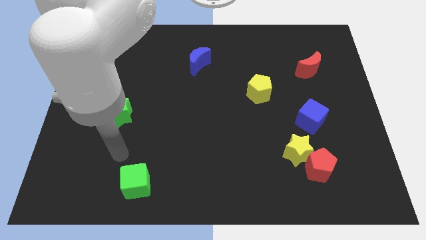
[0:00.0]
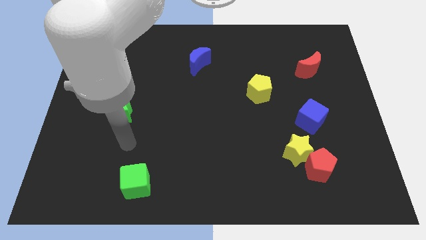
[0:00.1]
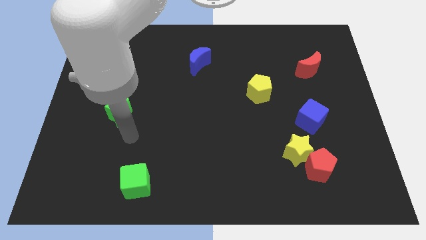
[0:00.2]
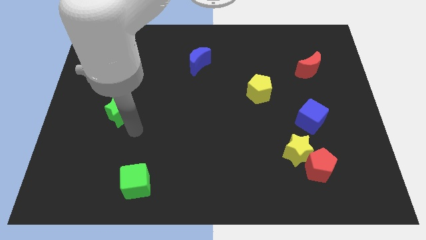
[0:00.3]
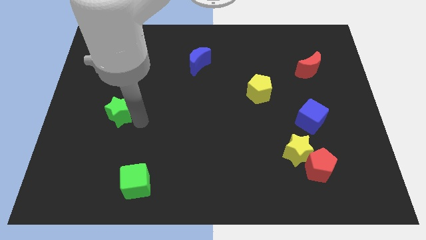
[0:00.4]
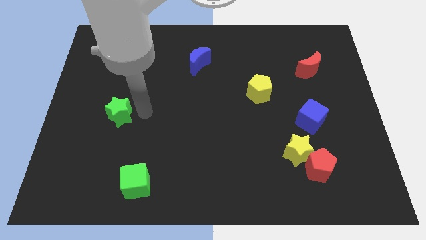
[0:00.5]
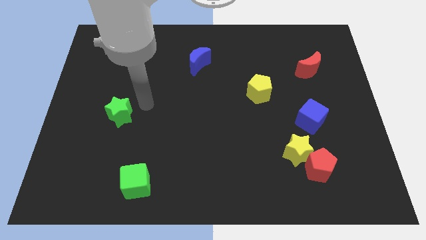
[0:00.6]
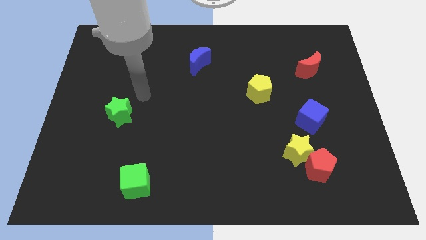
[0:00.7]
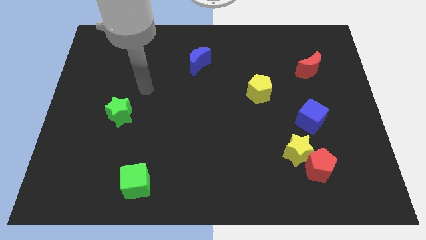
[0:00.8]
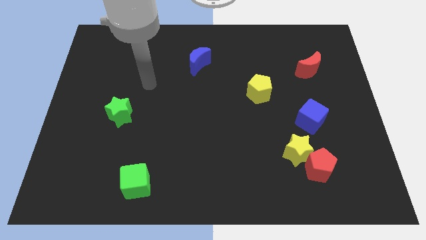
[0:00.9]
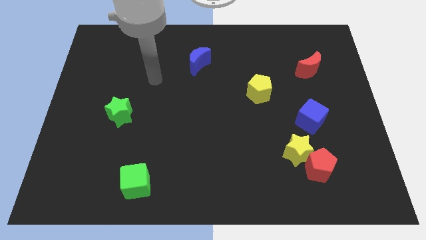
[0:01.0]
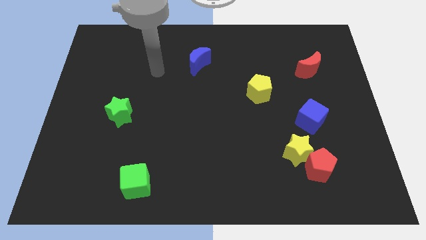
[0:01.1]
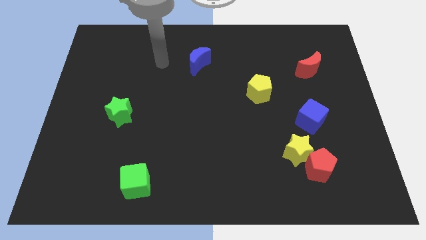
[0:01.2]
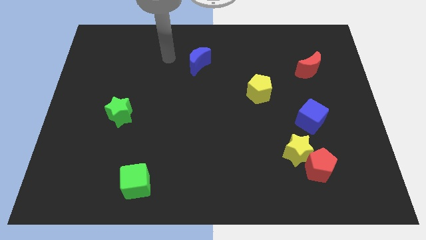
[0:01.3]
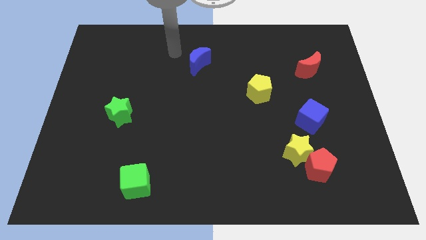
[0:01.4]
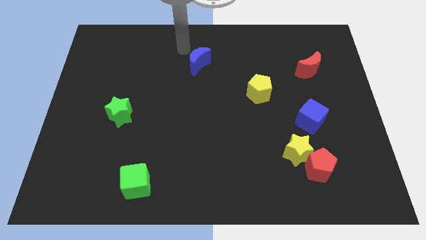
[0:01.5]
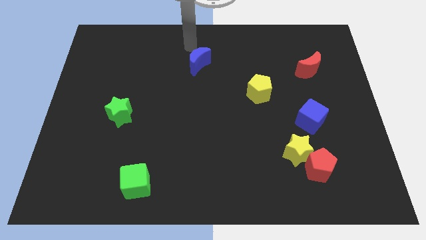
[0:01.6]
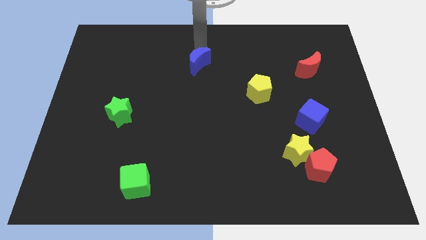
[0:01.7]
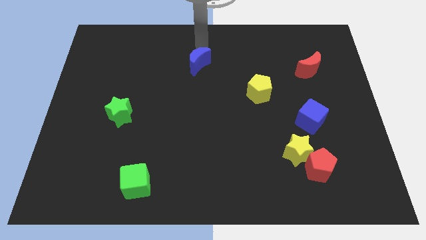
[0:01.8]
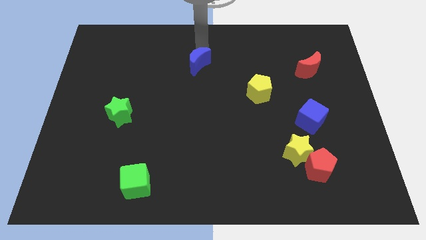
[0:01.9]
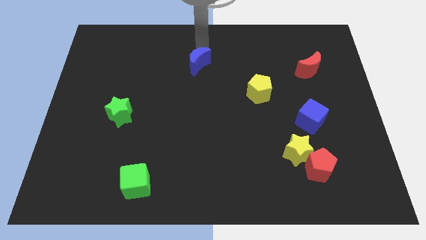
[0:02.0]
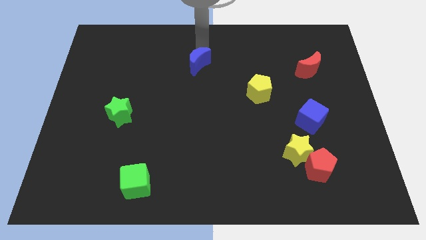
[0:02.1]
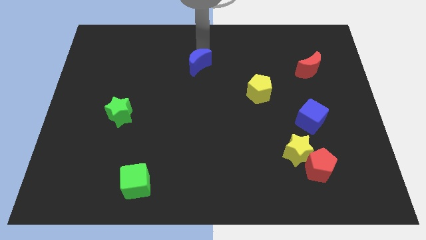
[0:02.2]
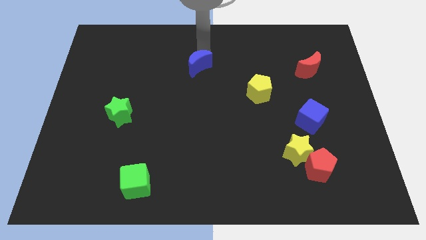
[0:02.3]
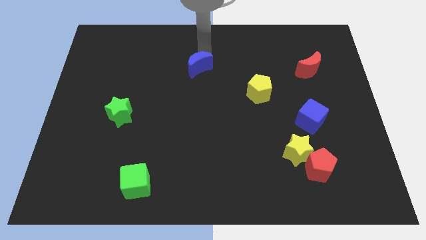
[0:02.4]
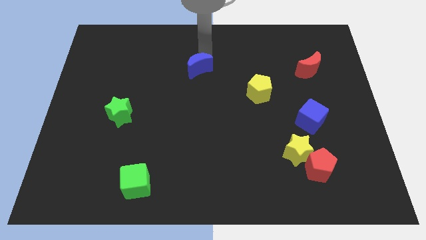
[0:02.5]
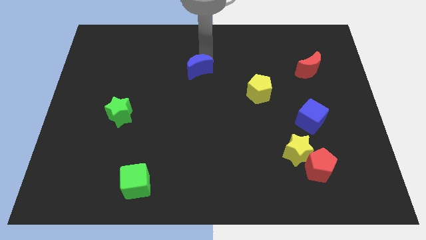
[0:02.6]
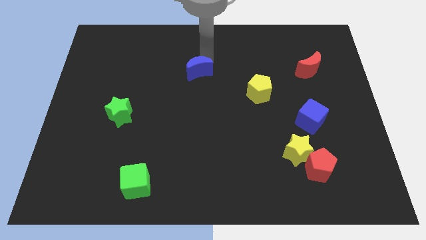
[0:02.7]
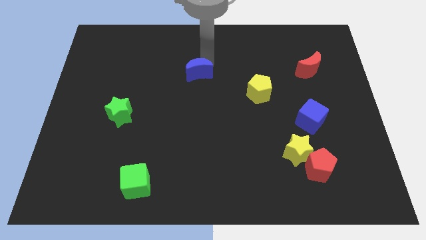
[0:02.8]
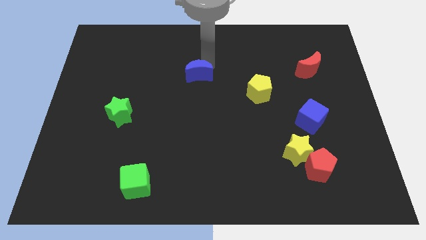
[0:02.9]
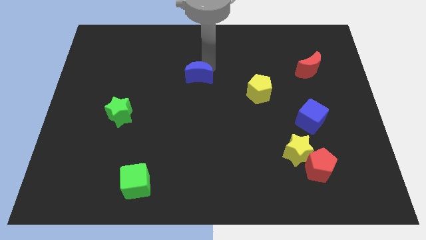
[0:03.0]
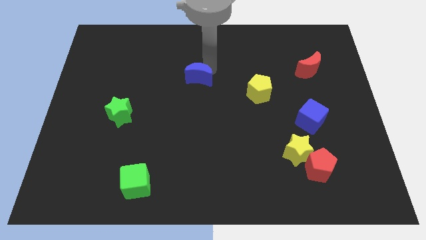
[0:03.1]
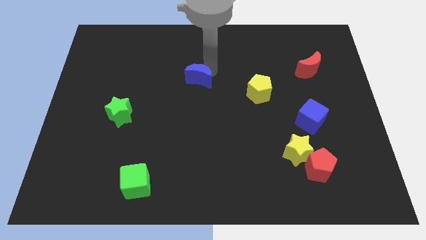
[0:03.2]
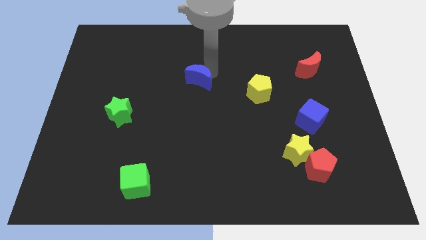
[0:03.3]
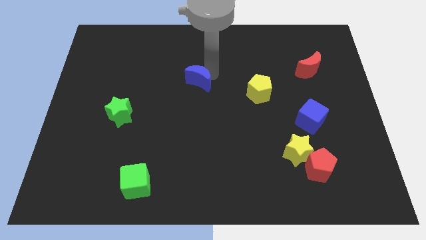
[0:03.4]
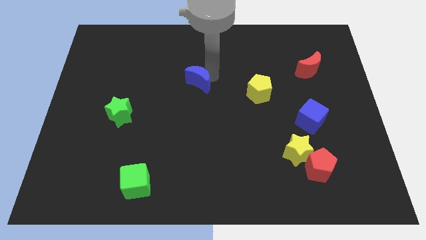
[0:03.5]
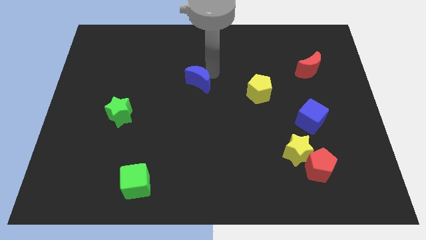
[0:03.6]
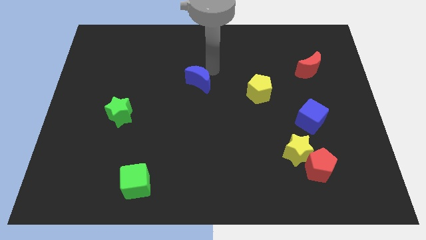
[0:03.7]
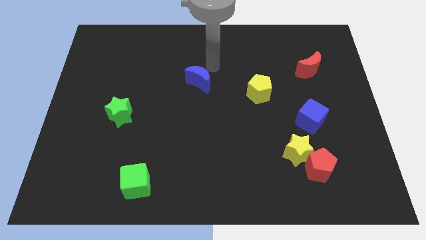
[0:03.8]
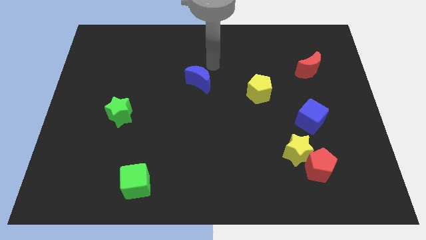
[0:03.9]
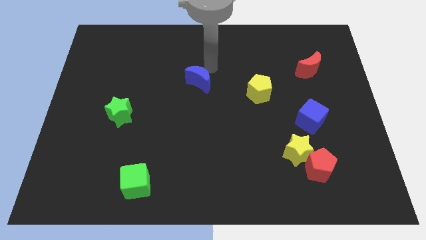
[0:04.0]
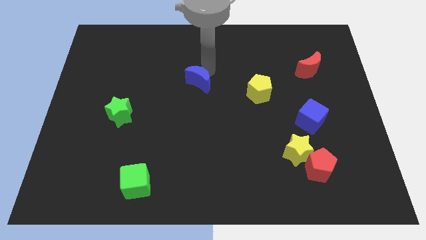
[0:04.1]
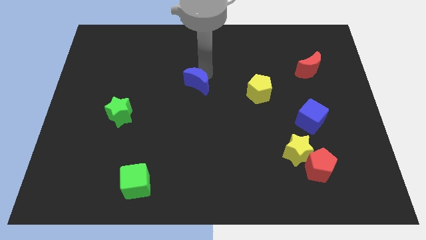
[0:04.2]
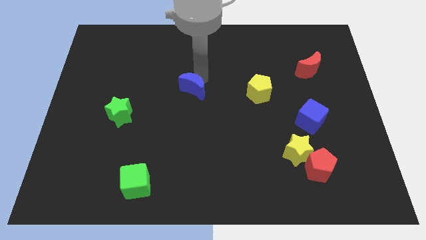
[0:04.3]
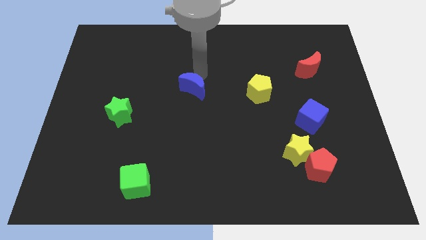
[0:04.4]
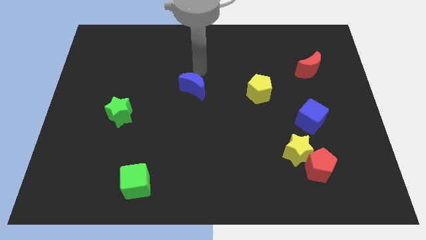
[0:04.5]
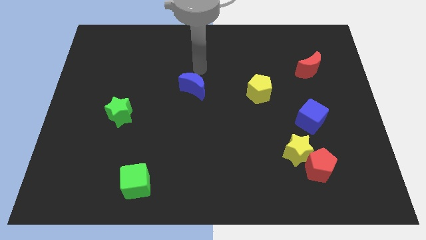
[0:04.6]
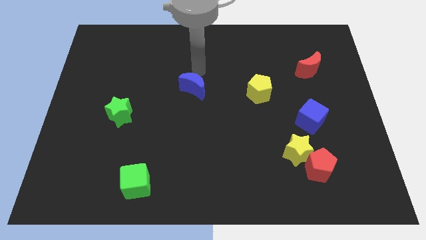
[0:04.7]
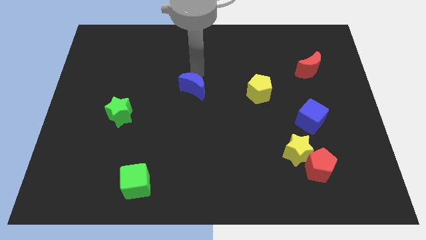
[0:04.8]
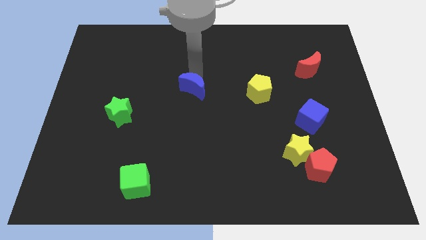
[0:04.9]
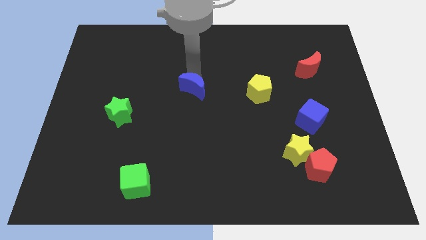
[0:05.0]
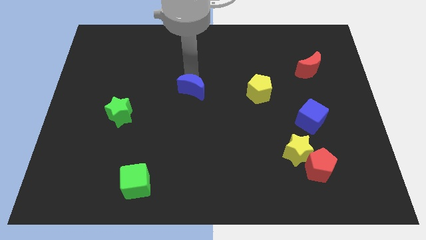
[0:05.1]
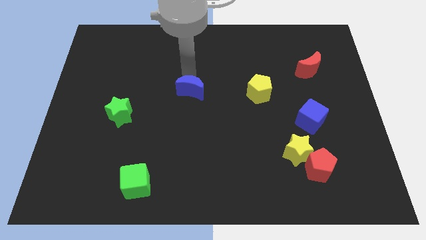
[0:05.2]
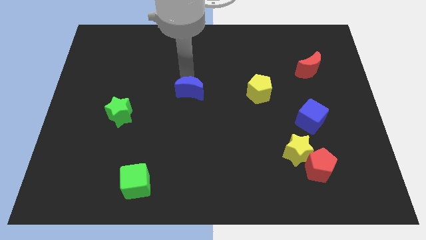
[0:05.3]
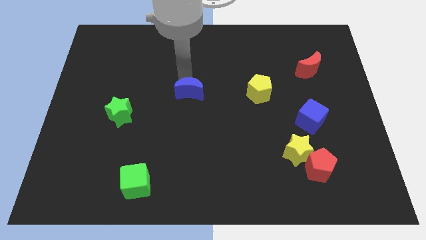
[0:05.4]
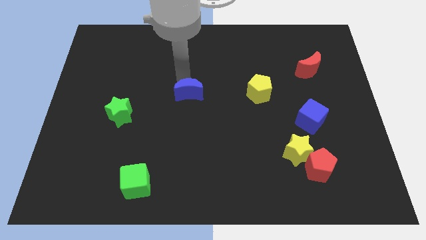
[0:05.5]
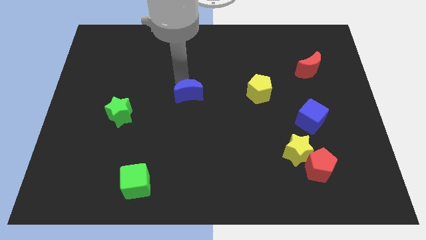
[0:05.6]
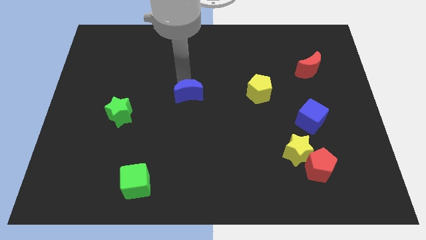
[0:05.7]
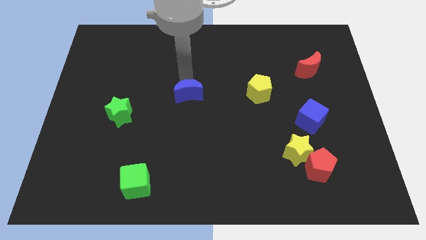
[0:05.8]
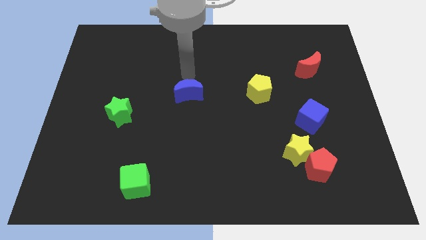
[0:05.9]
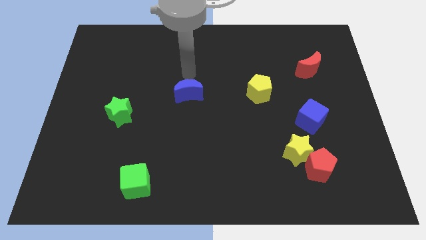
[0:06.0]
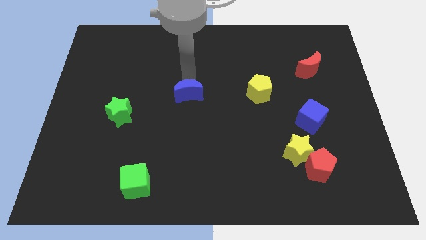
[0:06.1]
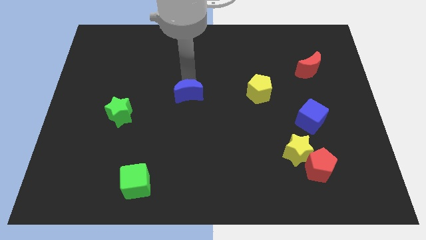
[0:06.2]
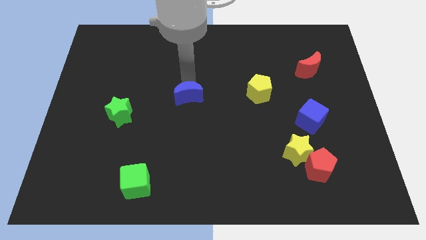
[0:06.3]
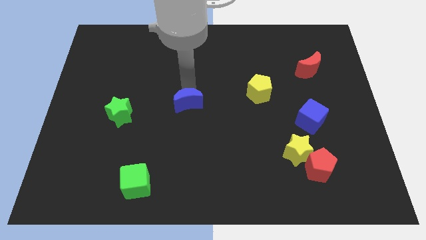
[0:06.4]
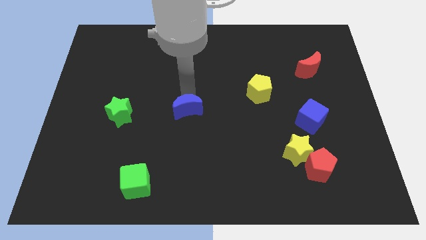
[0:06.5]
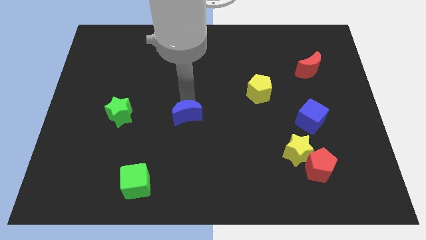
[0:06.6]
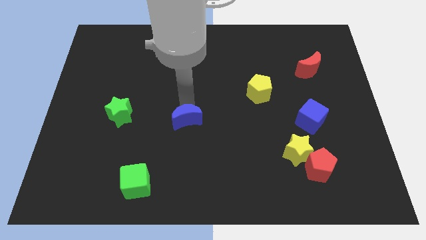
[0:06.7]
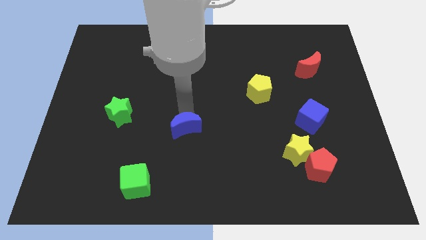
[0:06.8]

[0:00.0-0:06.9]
slide the blue moon downwards

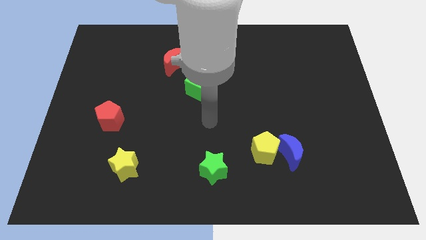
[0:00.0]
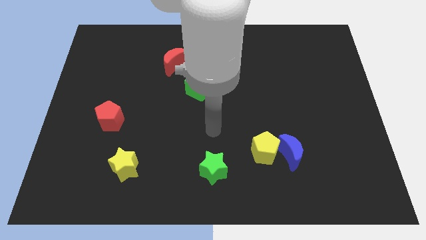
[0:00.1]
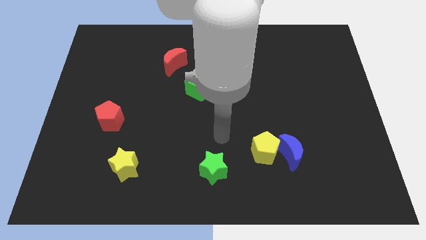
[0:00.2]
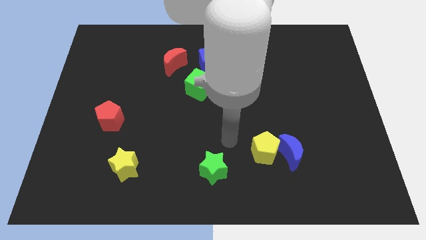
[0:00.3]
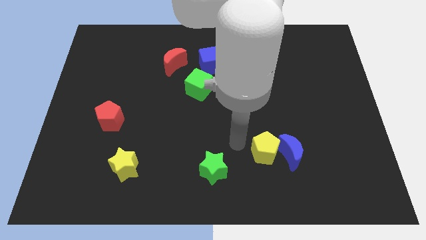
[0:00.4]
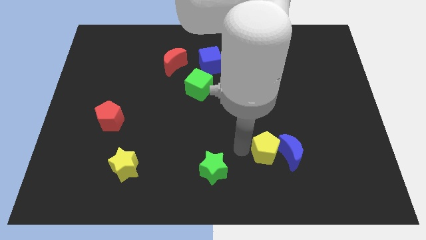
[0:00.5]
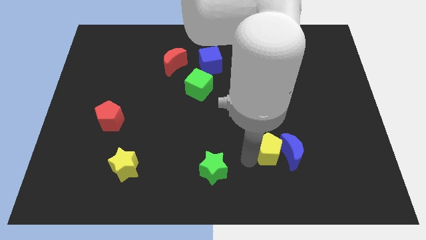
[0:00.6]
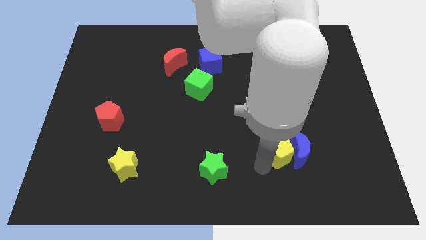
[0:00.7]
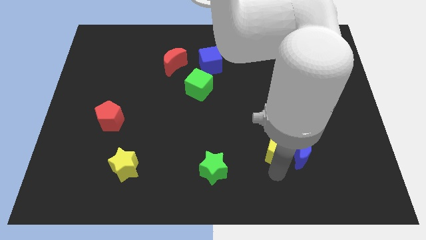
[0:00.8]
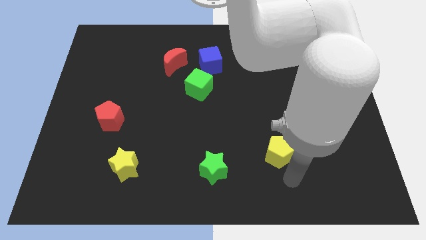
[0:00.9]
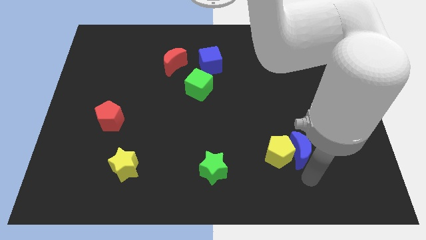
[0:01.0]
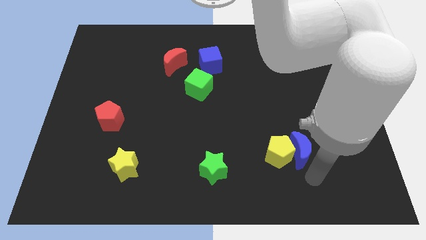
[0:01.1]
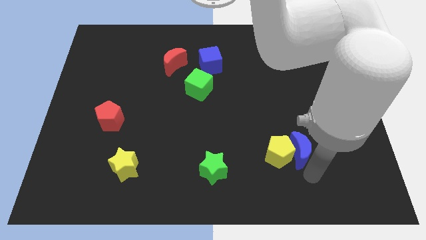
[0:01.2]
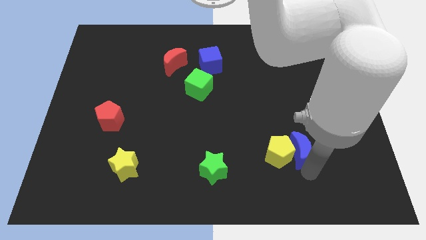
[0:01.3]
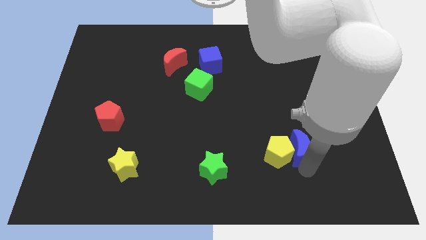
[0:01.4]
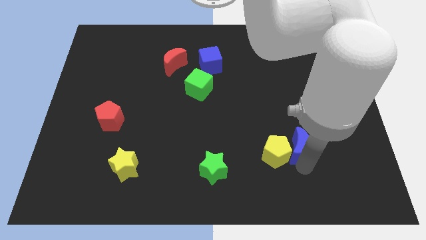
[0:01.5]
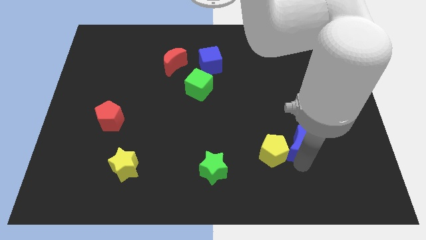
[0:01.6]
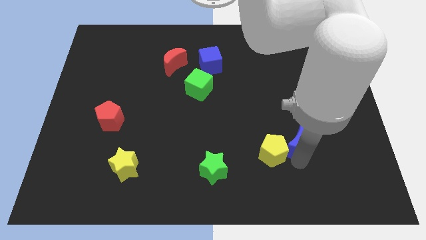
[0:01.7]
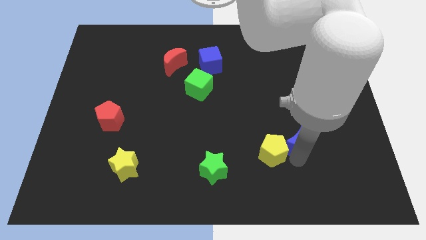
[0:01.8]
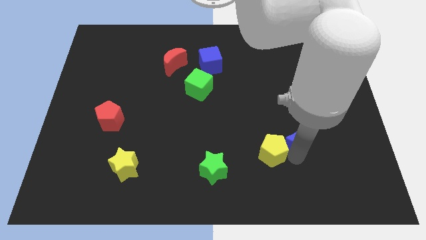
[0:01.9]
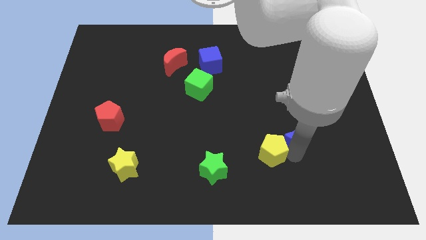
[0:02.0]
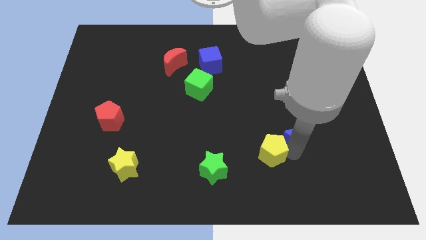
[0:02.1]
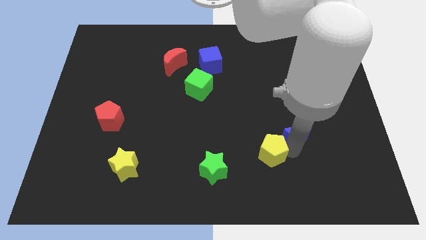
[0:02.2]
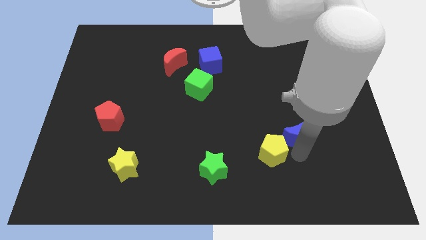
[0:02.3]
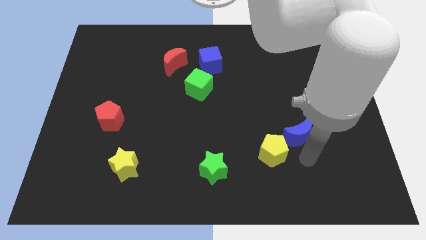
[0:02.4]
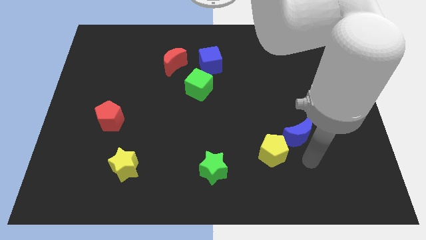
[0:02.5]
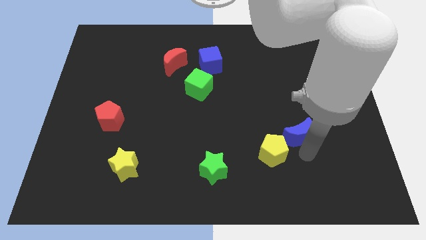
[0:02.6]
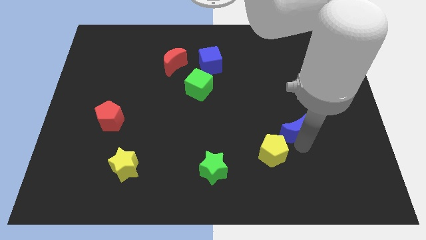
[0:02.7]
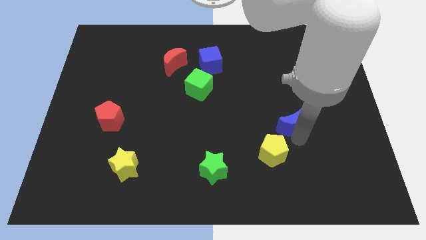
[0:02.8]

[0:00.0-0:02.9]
slide the blue moon up slightly
